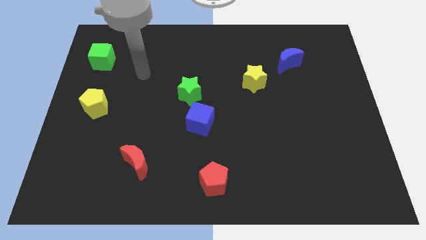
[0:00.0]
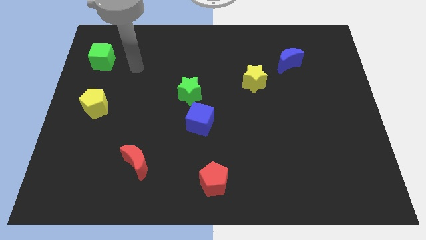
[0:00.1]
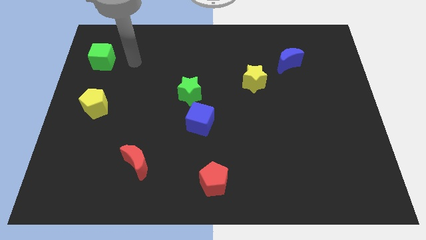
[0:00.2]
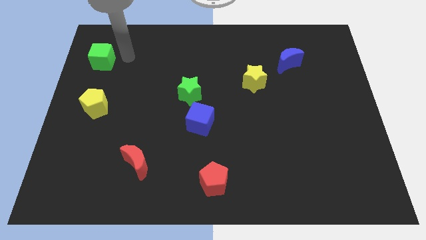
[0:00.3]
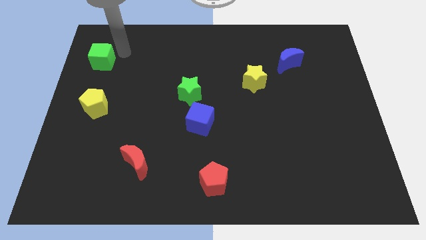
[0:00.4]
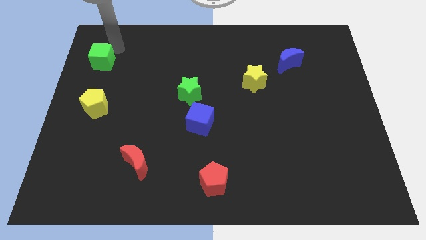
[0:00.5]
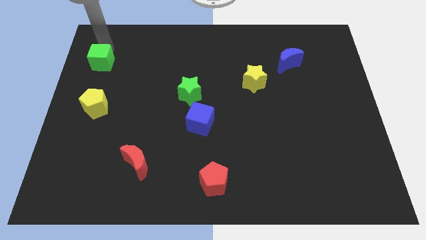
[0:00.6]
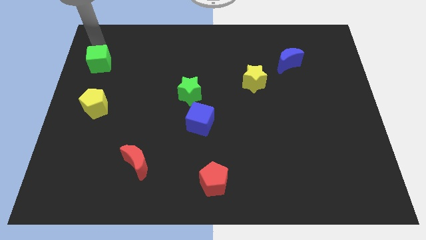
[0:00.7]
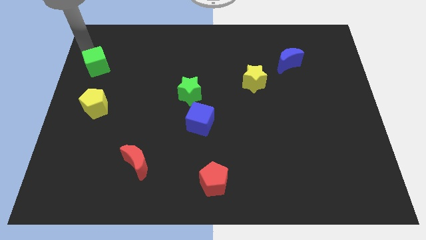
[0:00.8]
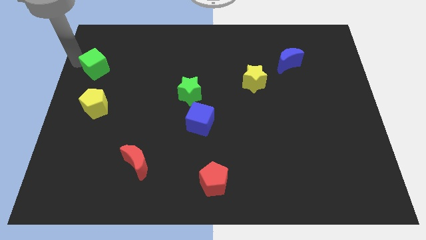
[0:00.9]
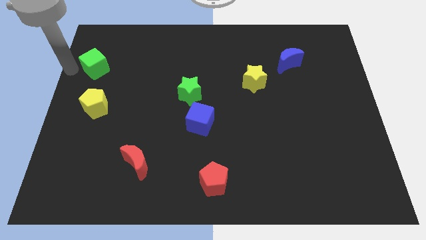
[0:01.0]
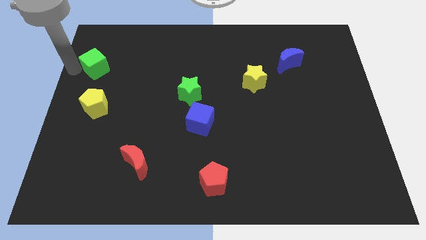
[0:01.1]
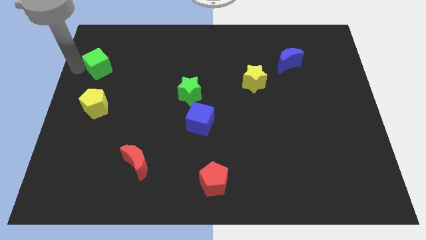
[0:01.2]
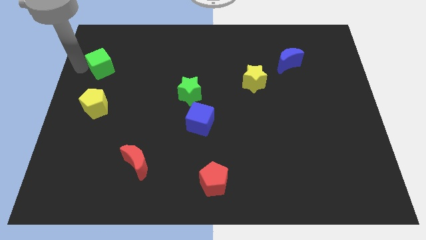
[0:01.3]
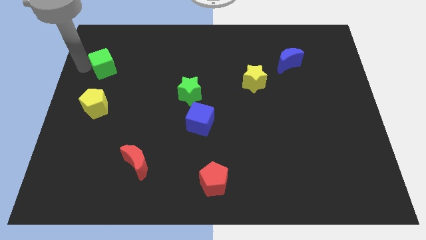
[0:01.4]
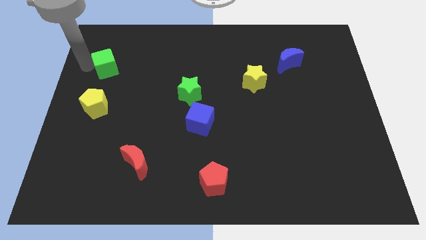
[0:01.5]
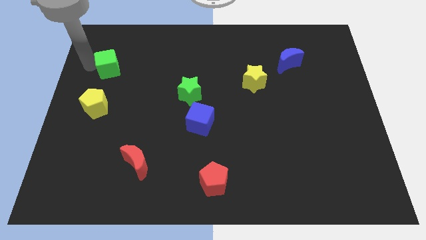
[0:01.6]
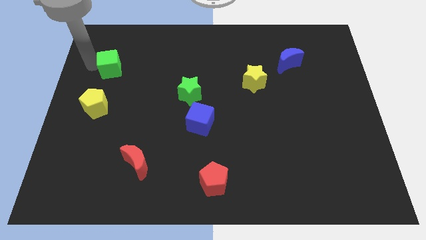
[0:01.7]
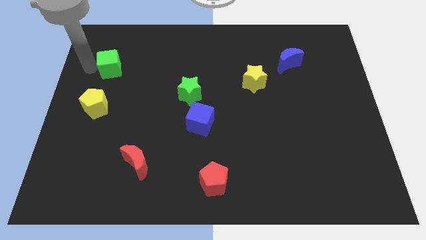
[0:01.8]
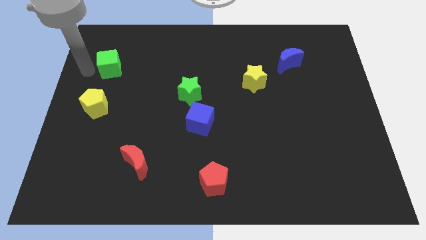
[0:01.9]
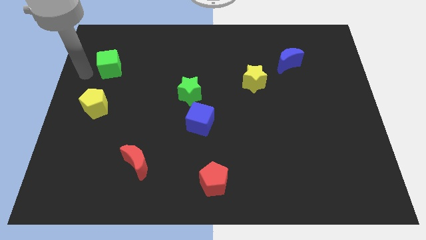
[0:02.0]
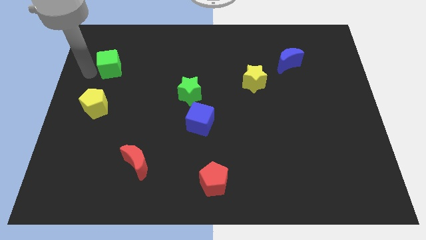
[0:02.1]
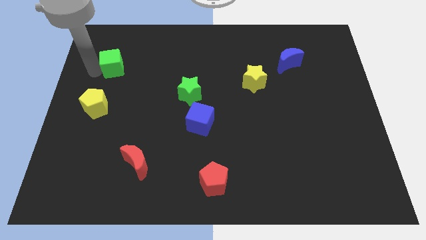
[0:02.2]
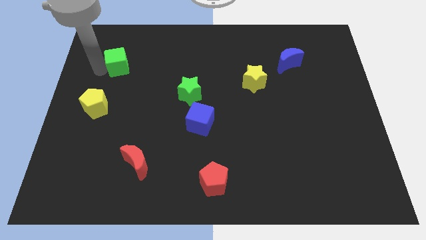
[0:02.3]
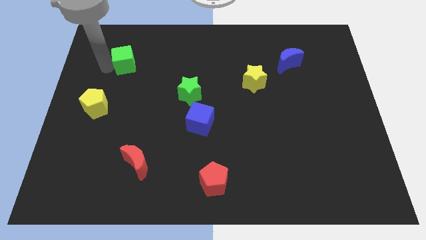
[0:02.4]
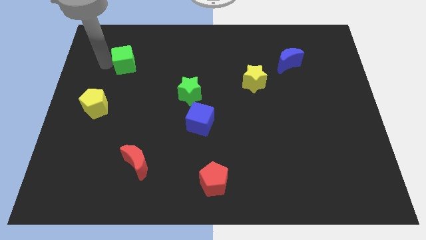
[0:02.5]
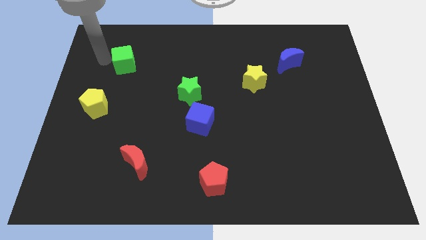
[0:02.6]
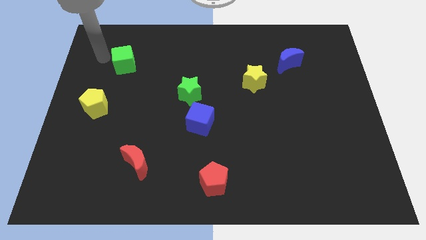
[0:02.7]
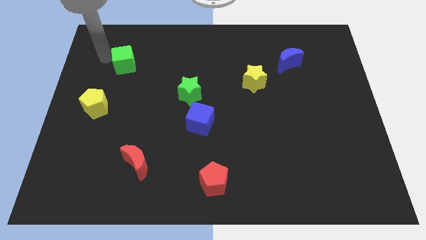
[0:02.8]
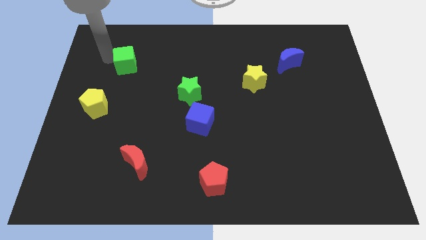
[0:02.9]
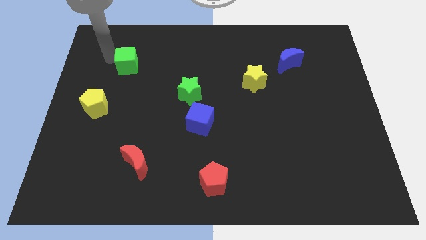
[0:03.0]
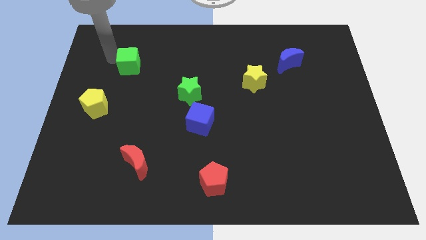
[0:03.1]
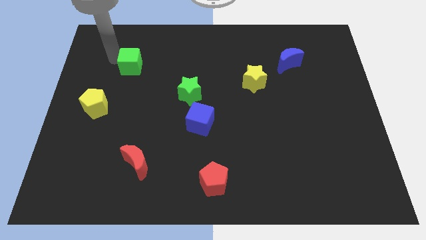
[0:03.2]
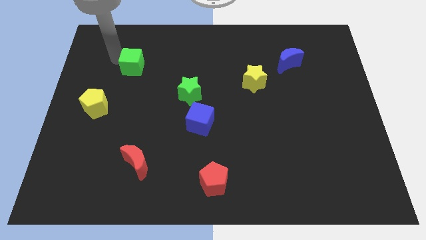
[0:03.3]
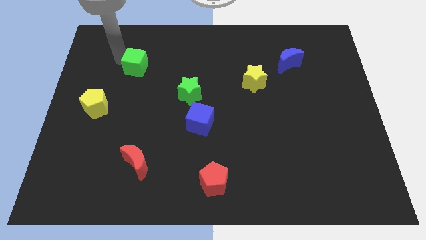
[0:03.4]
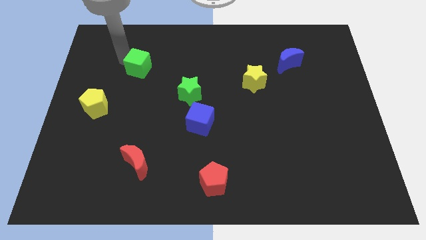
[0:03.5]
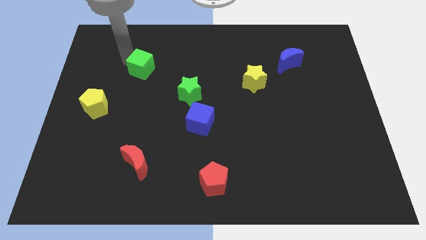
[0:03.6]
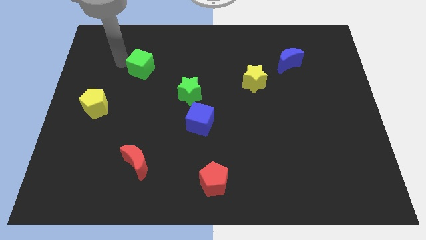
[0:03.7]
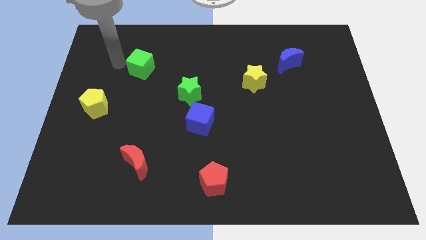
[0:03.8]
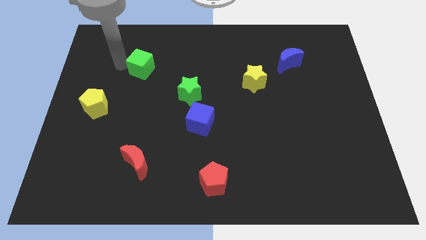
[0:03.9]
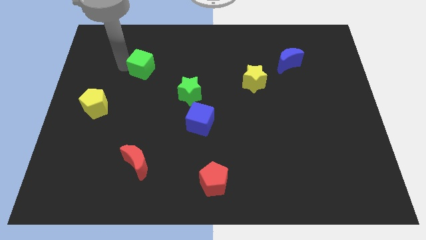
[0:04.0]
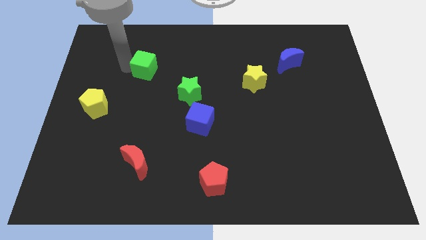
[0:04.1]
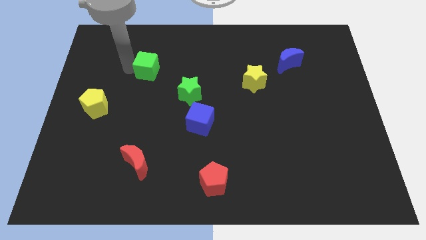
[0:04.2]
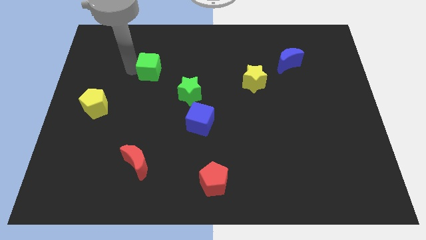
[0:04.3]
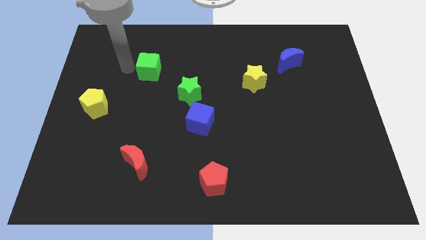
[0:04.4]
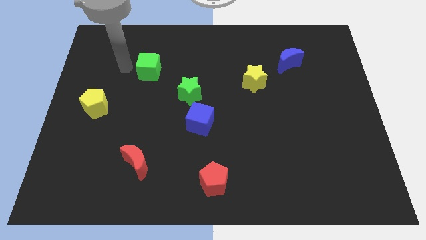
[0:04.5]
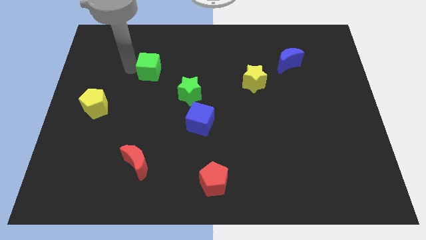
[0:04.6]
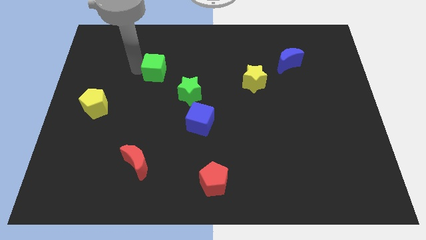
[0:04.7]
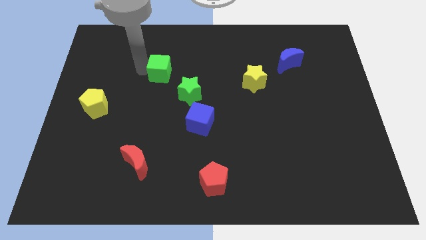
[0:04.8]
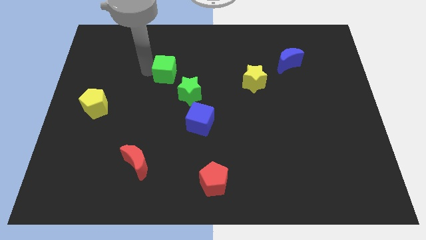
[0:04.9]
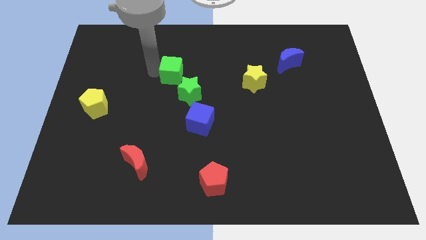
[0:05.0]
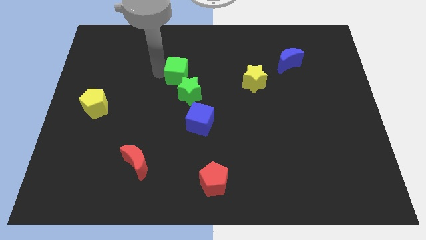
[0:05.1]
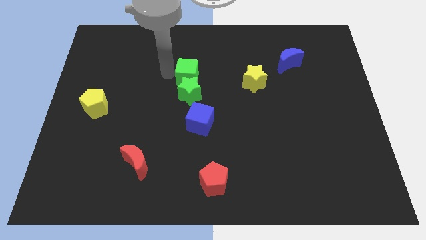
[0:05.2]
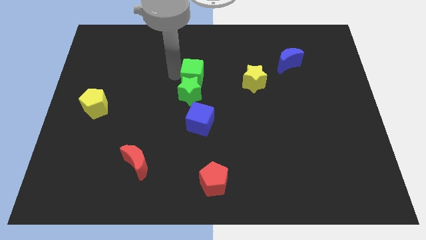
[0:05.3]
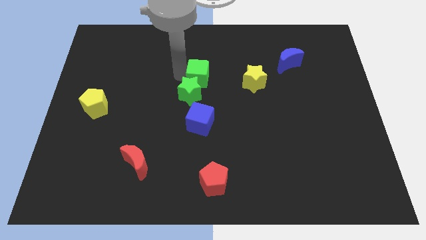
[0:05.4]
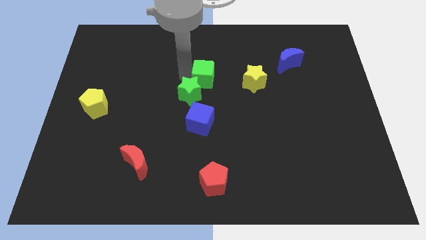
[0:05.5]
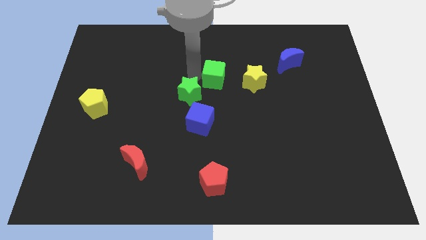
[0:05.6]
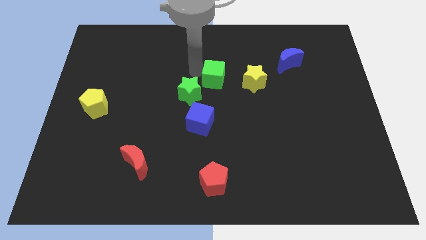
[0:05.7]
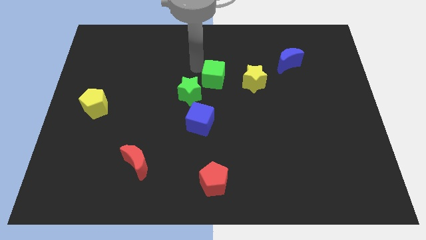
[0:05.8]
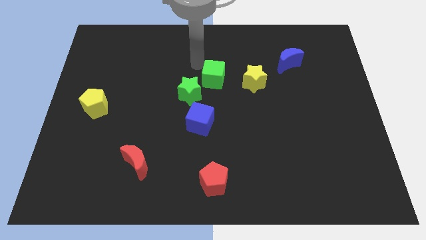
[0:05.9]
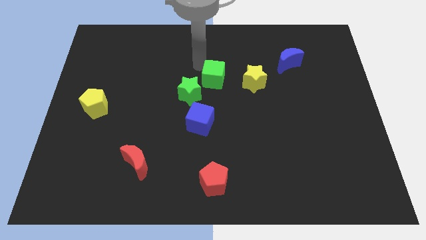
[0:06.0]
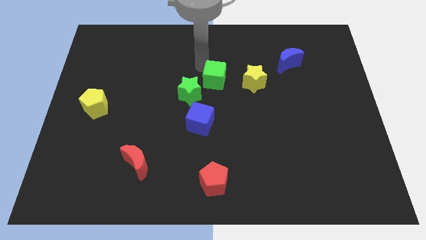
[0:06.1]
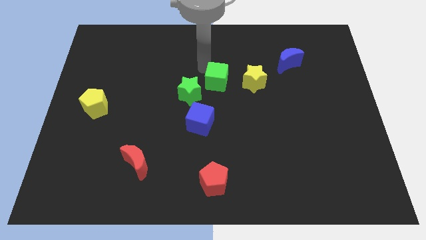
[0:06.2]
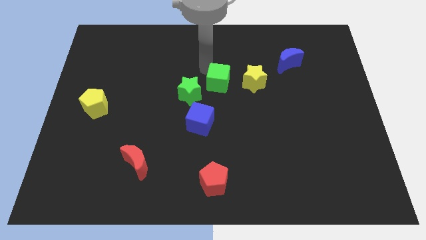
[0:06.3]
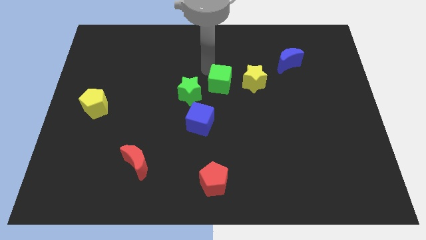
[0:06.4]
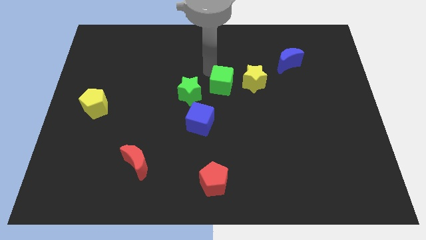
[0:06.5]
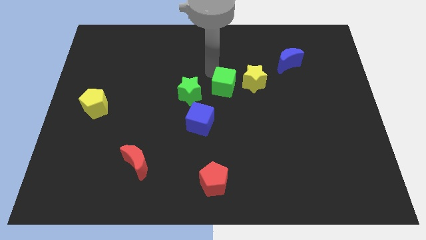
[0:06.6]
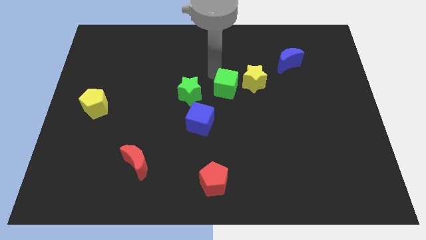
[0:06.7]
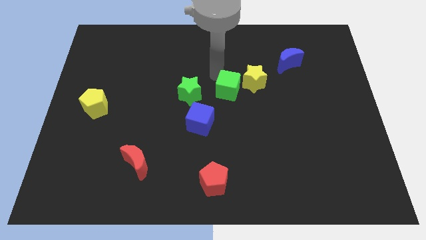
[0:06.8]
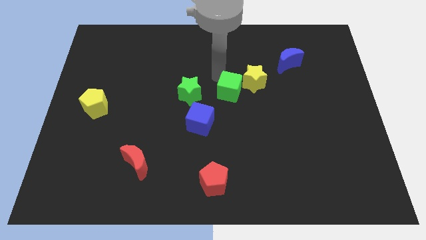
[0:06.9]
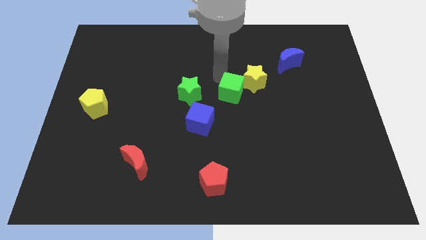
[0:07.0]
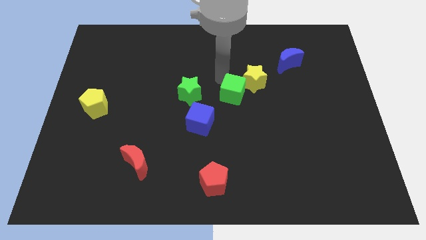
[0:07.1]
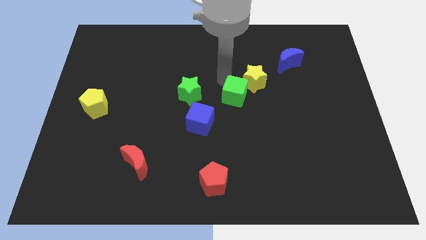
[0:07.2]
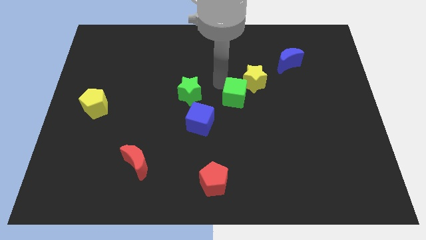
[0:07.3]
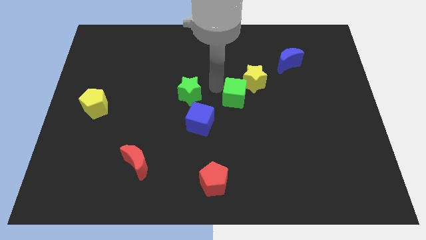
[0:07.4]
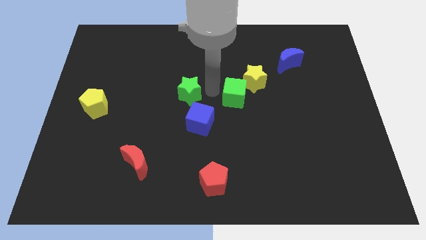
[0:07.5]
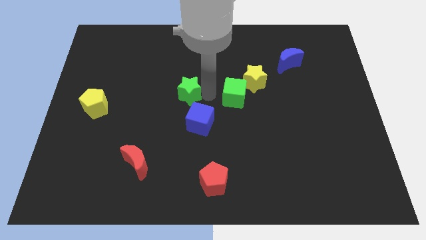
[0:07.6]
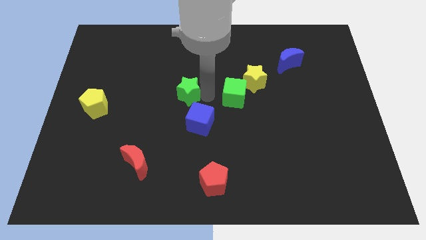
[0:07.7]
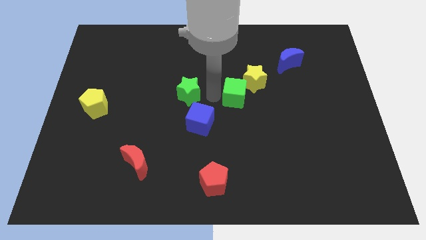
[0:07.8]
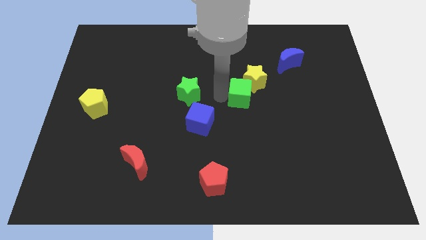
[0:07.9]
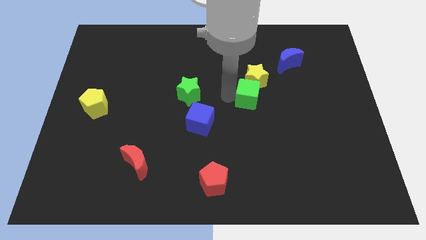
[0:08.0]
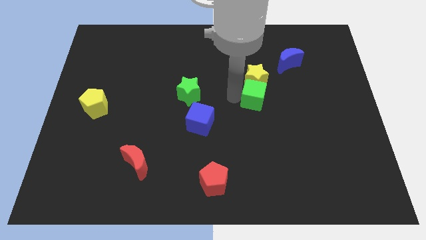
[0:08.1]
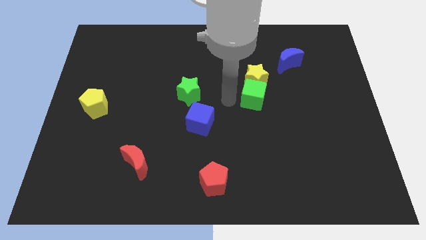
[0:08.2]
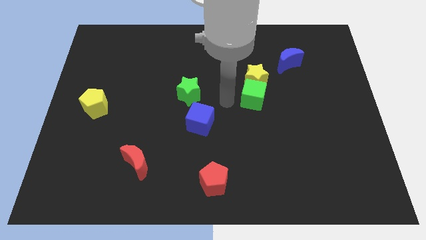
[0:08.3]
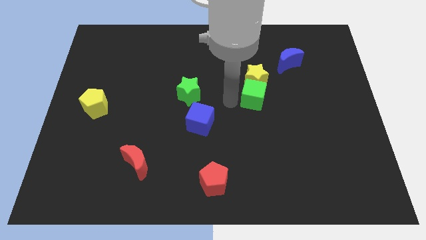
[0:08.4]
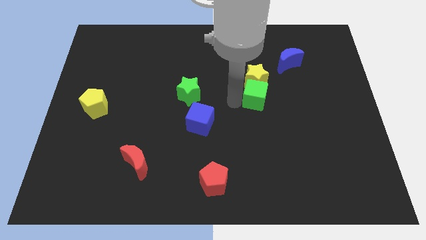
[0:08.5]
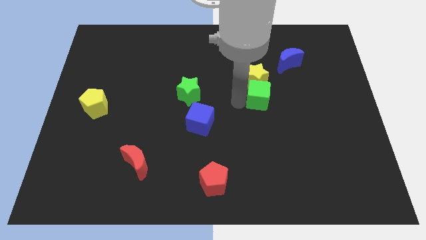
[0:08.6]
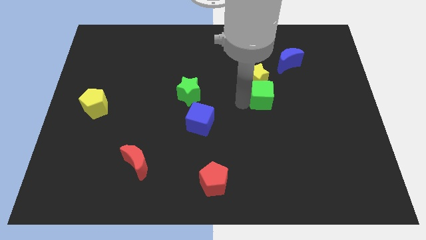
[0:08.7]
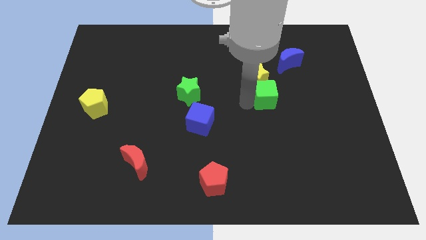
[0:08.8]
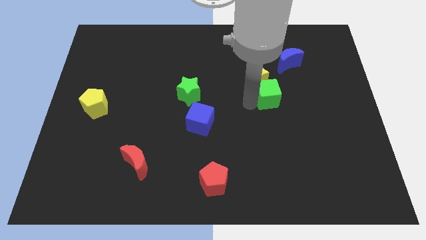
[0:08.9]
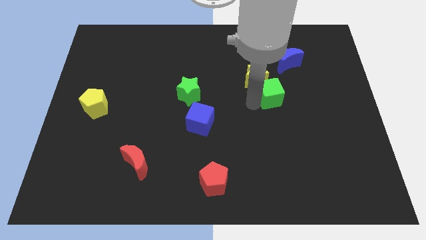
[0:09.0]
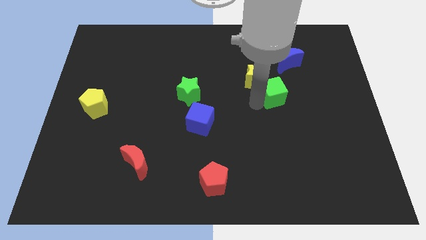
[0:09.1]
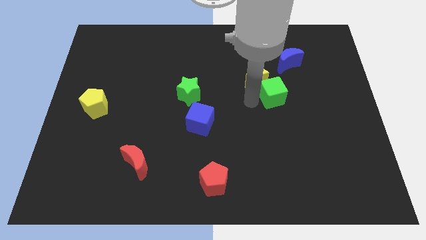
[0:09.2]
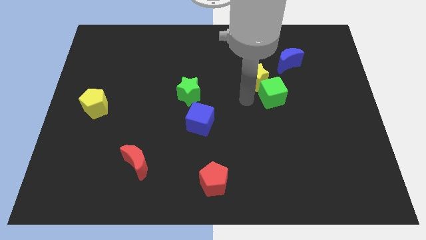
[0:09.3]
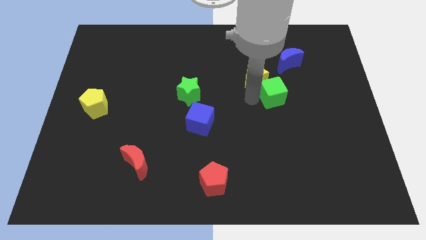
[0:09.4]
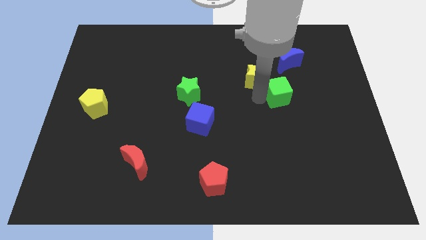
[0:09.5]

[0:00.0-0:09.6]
push the green cube below the blue moon
